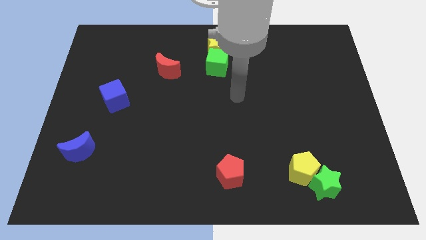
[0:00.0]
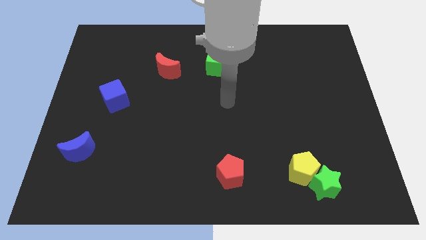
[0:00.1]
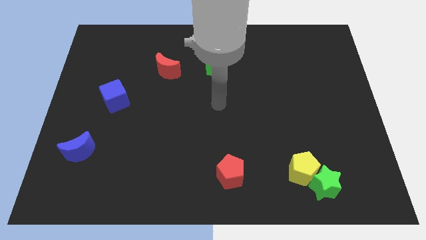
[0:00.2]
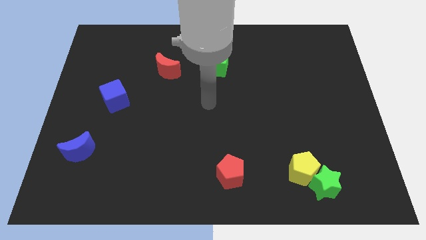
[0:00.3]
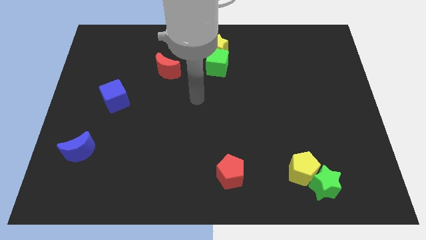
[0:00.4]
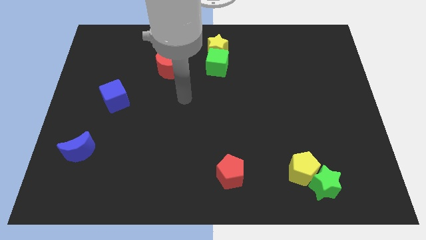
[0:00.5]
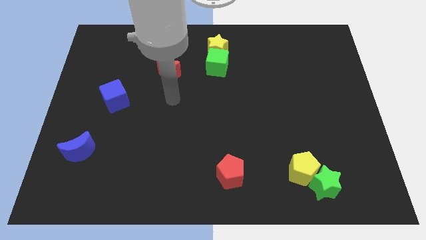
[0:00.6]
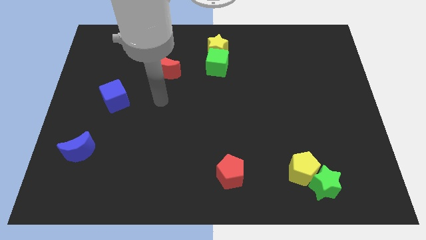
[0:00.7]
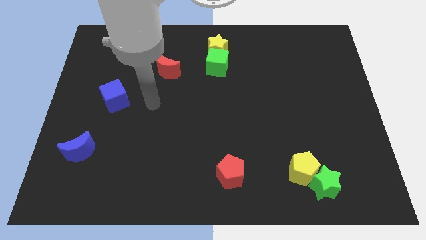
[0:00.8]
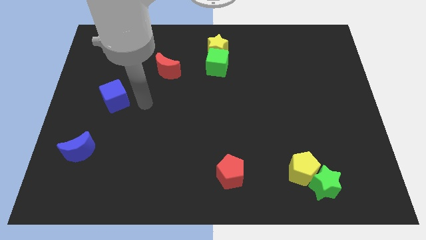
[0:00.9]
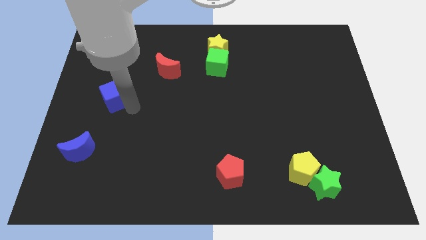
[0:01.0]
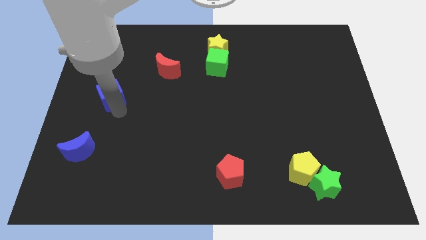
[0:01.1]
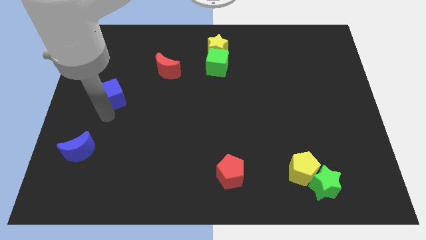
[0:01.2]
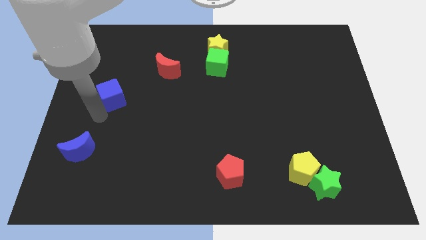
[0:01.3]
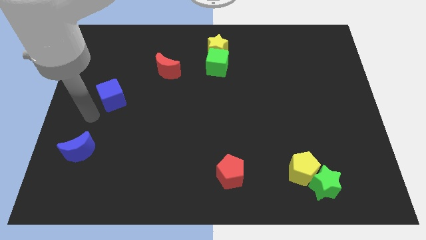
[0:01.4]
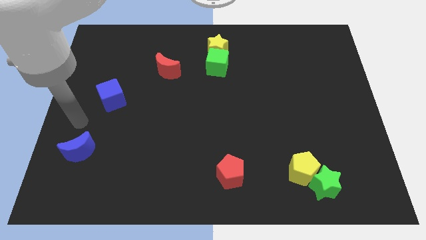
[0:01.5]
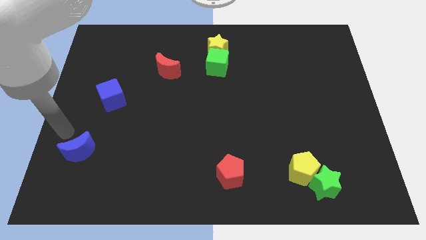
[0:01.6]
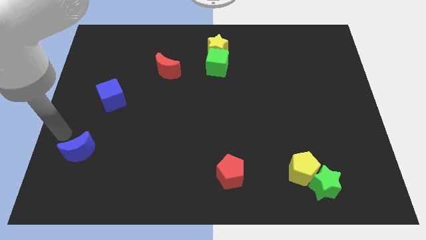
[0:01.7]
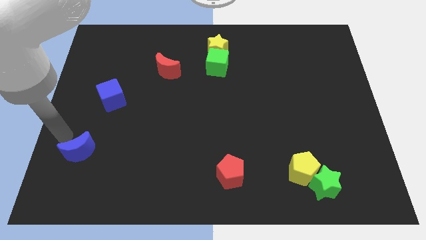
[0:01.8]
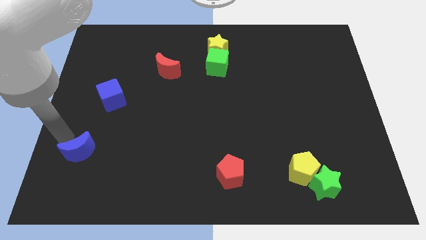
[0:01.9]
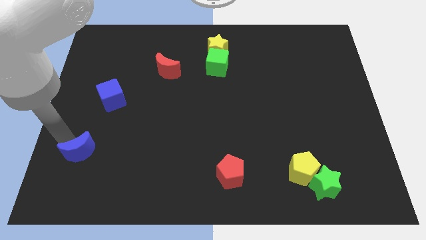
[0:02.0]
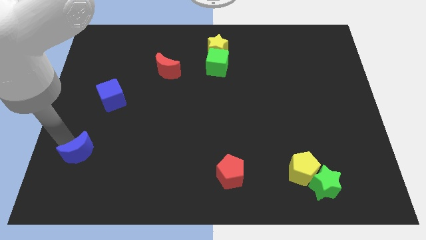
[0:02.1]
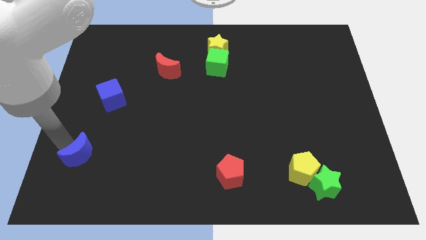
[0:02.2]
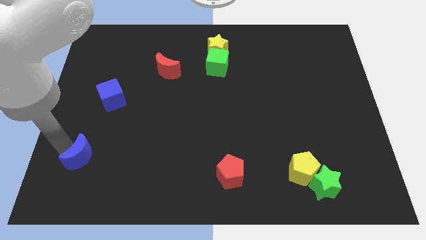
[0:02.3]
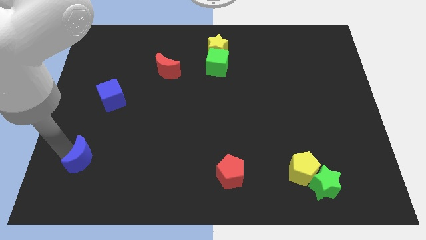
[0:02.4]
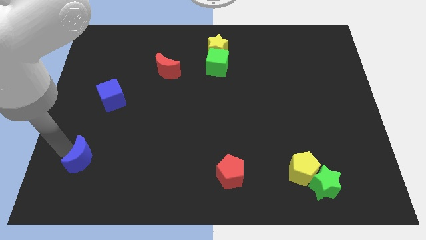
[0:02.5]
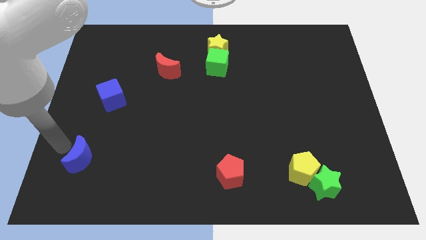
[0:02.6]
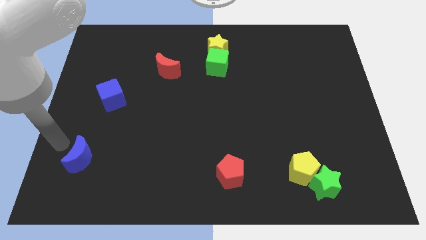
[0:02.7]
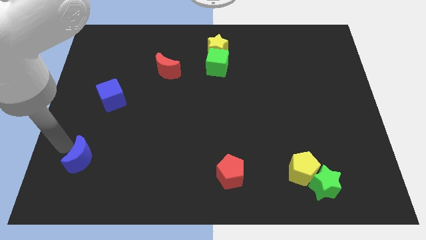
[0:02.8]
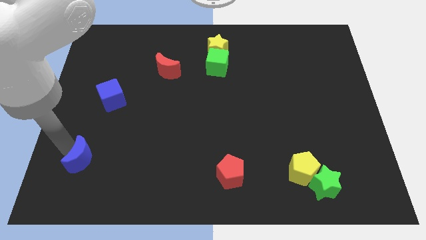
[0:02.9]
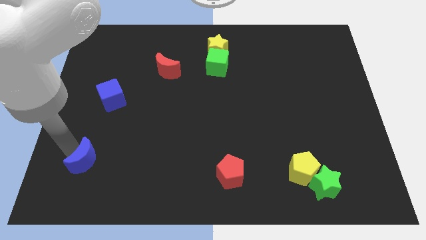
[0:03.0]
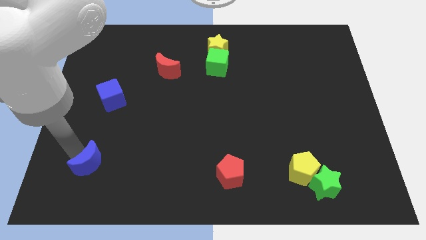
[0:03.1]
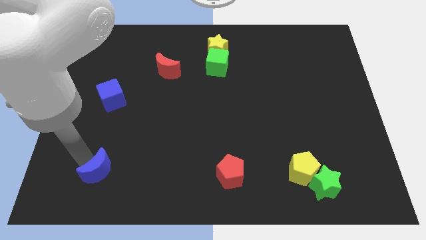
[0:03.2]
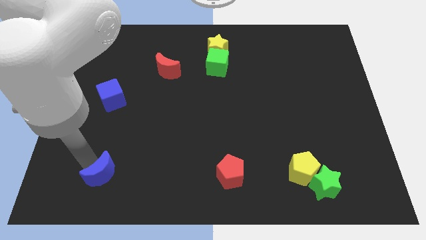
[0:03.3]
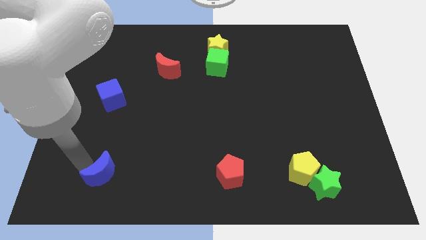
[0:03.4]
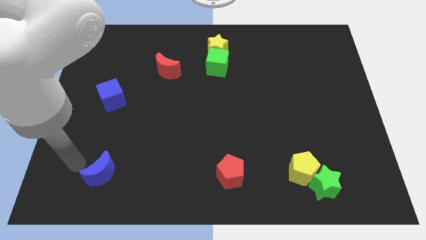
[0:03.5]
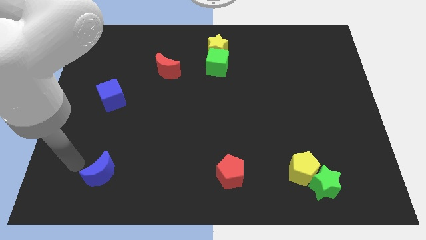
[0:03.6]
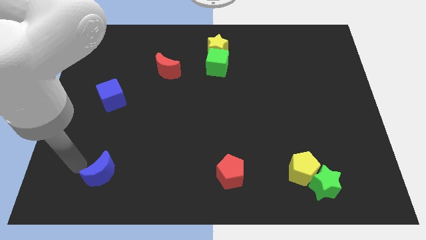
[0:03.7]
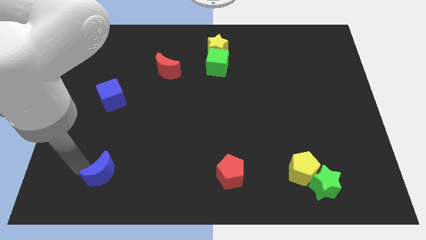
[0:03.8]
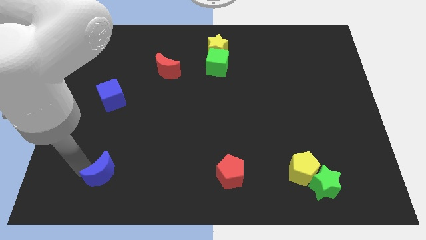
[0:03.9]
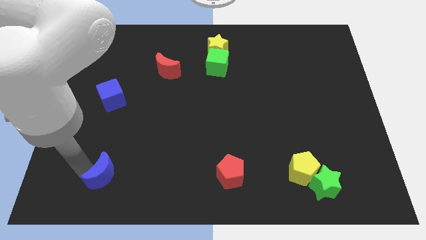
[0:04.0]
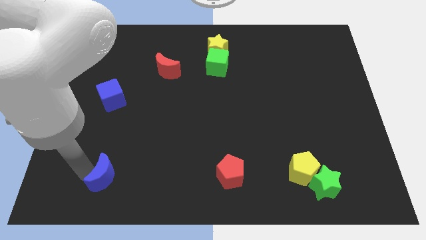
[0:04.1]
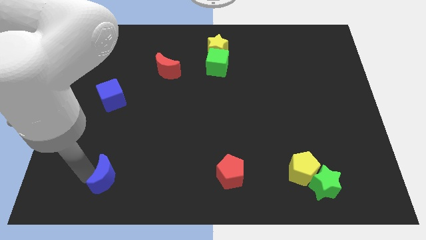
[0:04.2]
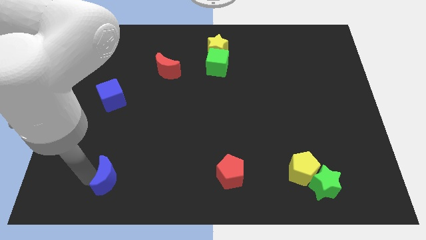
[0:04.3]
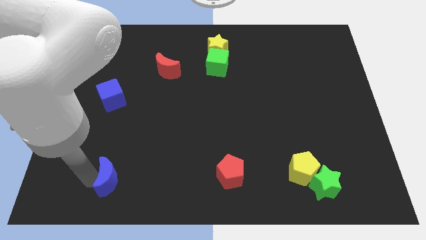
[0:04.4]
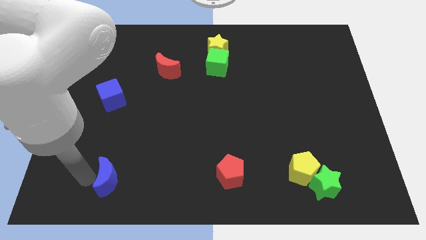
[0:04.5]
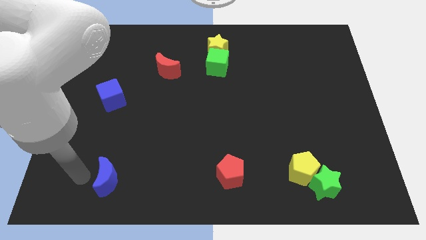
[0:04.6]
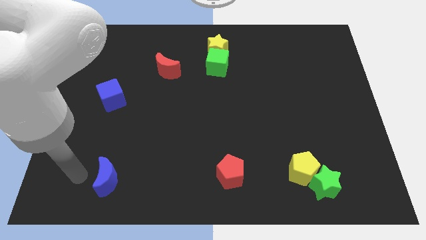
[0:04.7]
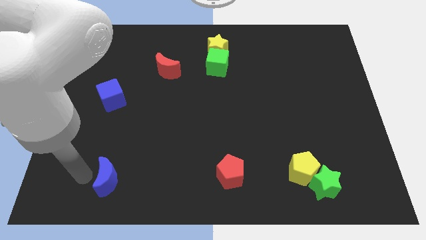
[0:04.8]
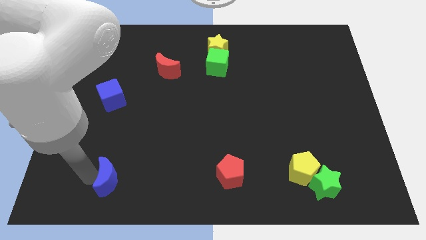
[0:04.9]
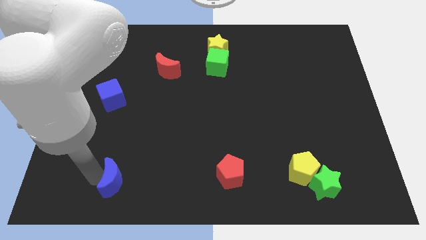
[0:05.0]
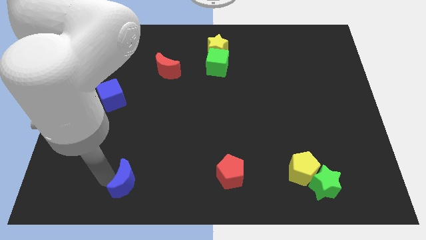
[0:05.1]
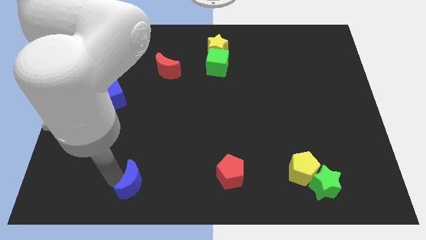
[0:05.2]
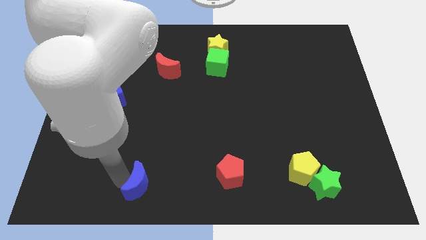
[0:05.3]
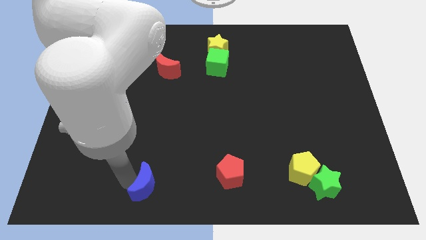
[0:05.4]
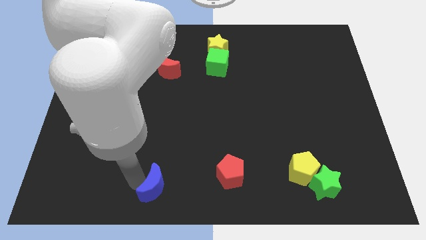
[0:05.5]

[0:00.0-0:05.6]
move the blue moon to the bottom side

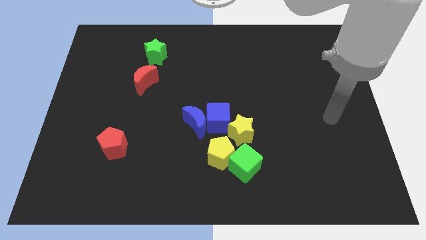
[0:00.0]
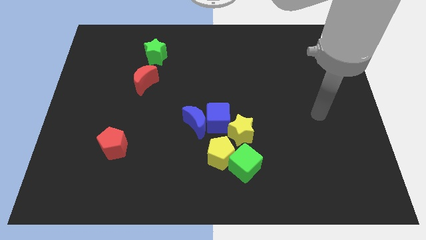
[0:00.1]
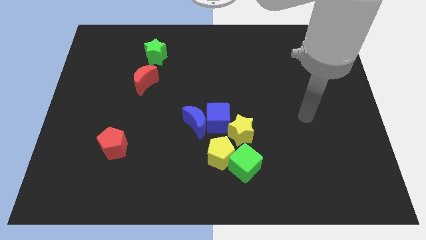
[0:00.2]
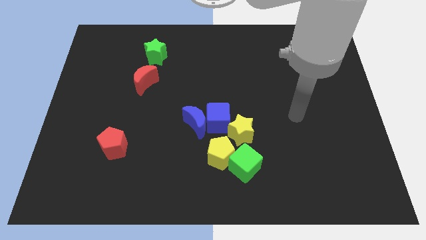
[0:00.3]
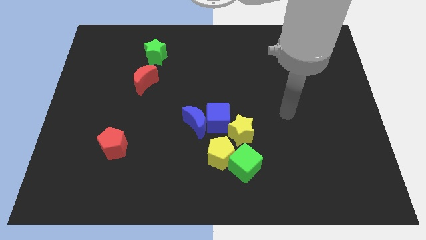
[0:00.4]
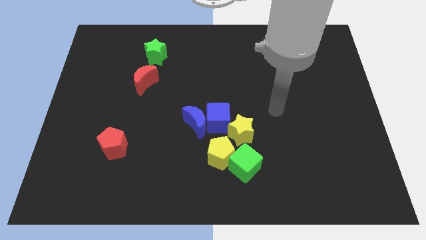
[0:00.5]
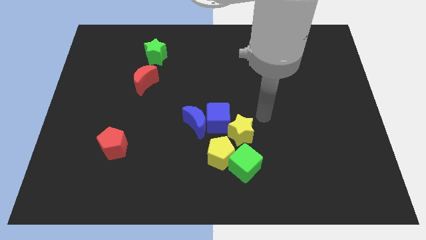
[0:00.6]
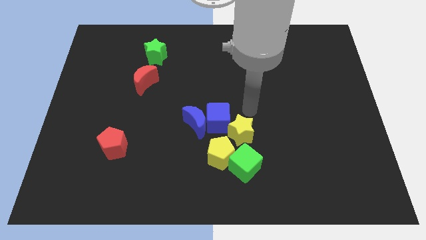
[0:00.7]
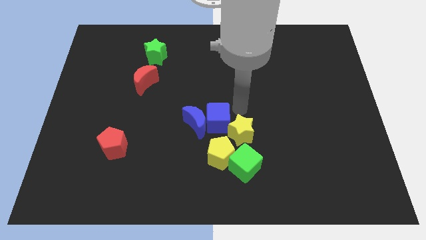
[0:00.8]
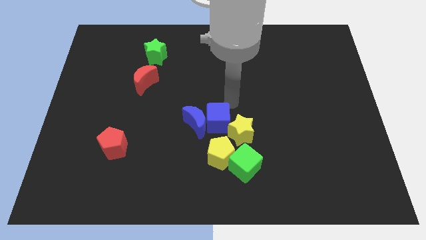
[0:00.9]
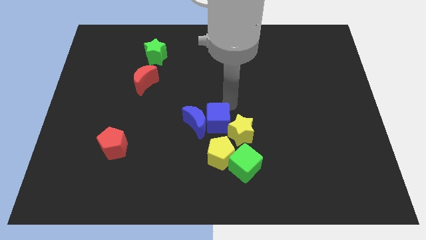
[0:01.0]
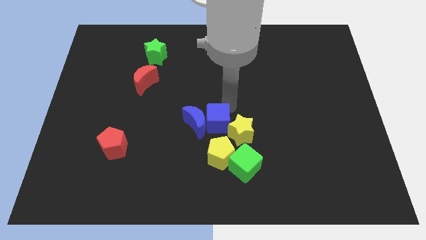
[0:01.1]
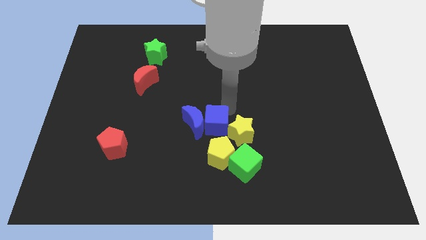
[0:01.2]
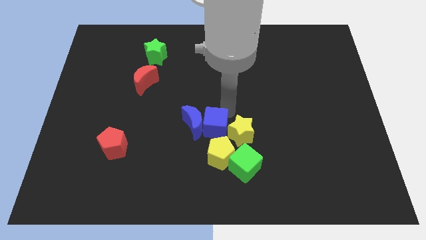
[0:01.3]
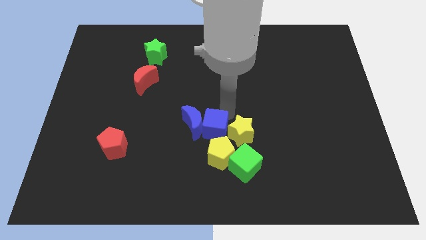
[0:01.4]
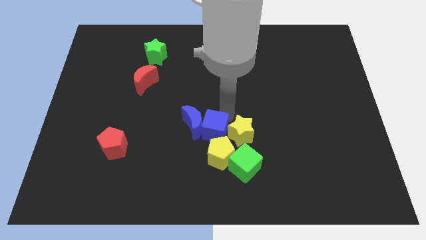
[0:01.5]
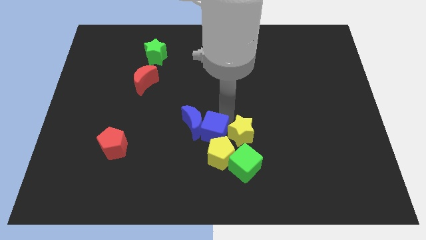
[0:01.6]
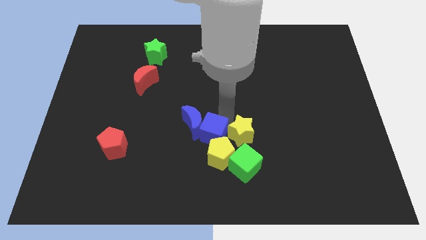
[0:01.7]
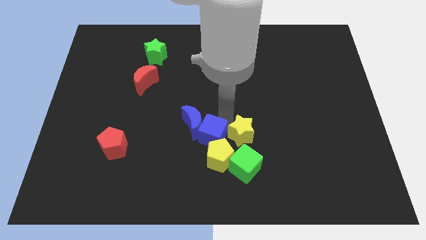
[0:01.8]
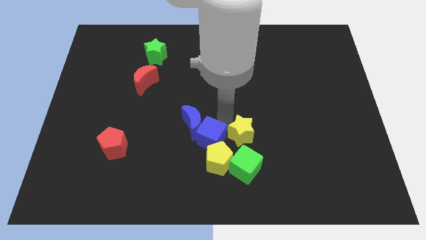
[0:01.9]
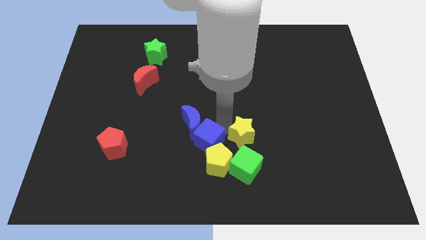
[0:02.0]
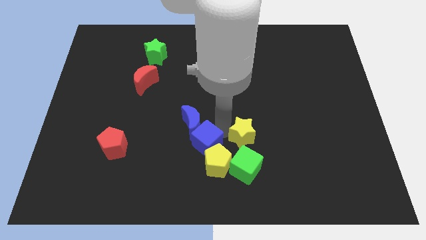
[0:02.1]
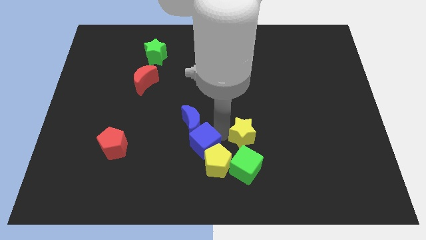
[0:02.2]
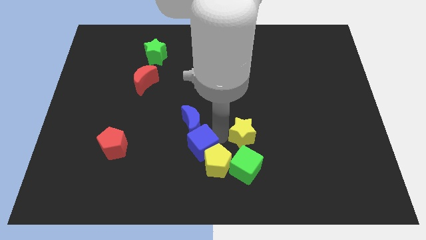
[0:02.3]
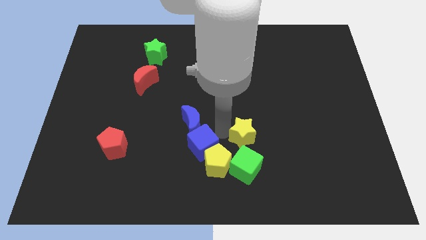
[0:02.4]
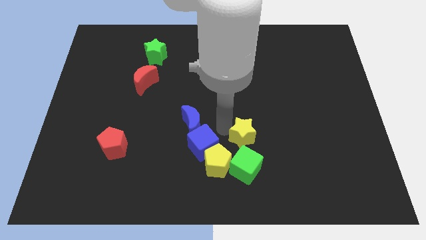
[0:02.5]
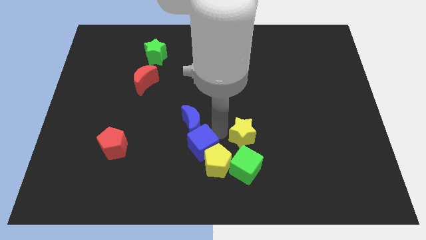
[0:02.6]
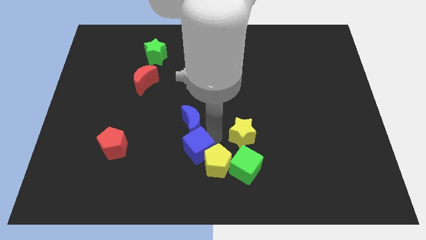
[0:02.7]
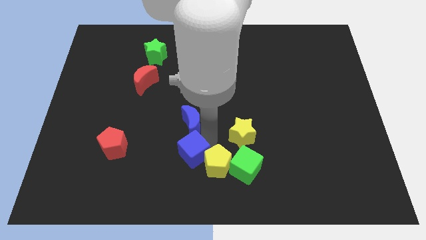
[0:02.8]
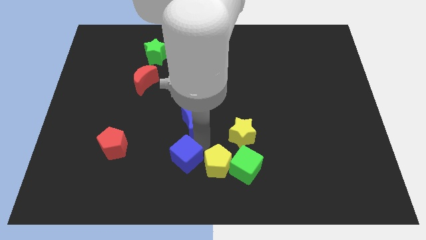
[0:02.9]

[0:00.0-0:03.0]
push the blue cube to the bottom side
